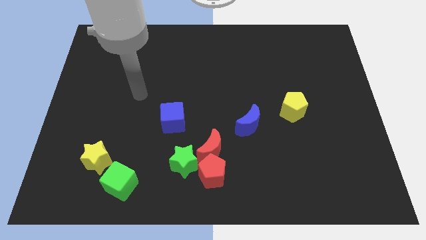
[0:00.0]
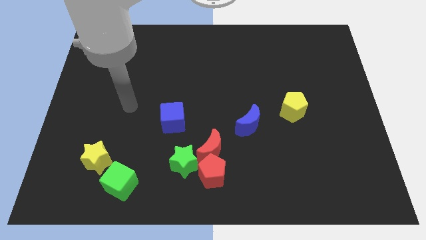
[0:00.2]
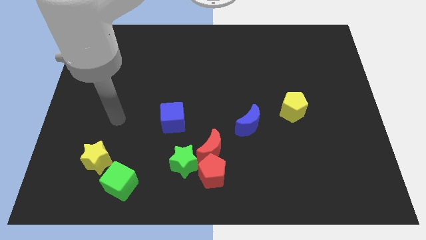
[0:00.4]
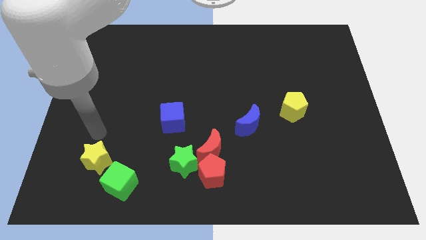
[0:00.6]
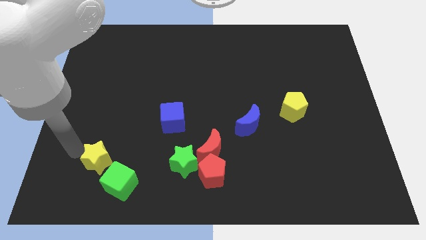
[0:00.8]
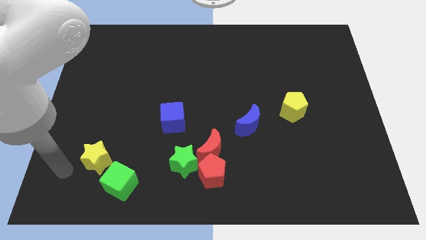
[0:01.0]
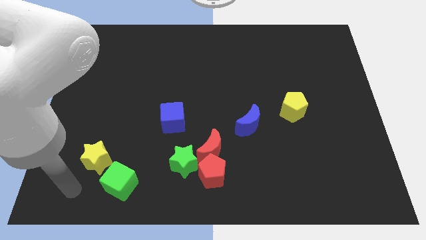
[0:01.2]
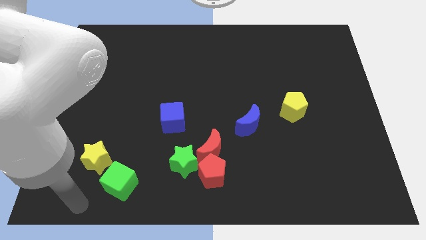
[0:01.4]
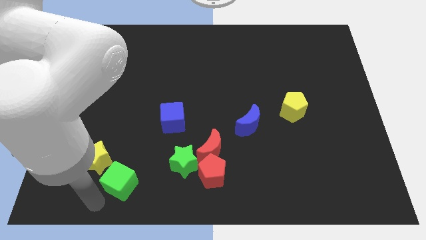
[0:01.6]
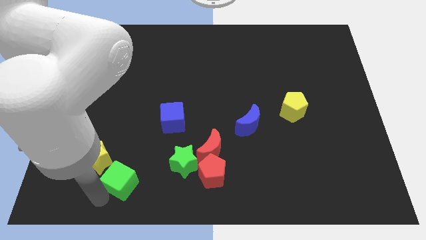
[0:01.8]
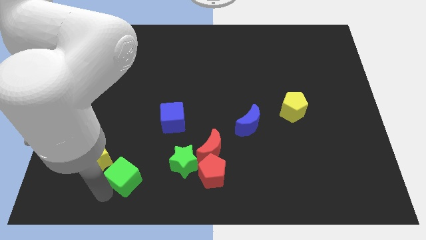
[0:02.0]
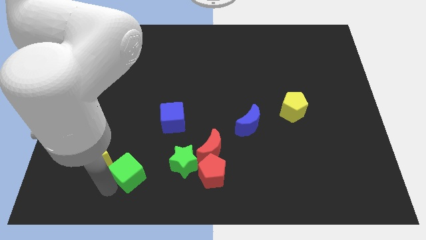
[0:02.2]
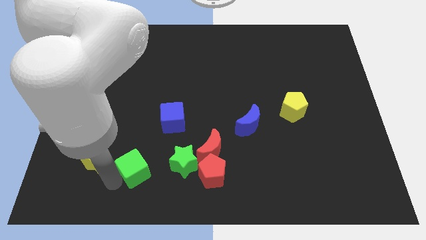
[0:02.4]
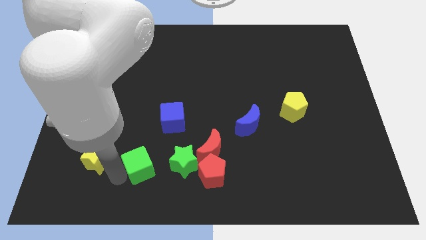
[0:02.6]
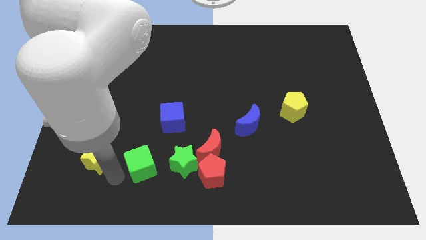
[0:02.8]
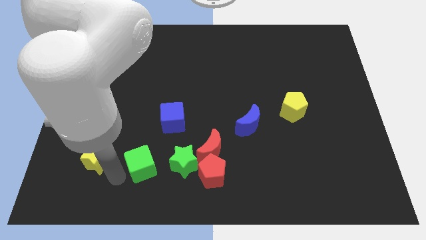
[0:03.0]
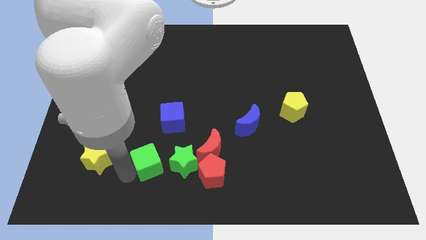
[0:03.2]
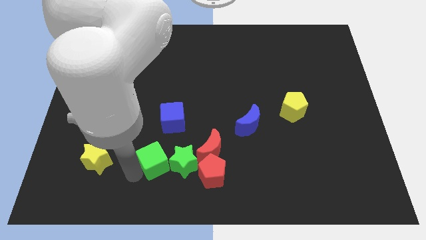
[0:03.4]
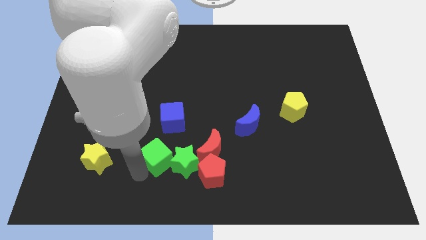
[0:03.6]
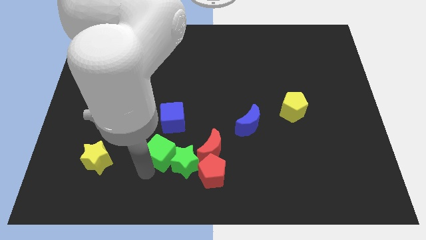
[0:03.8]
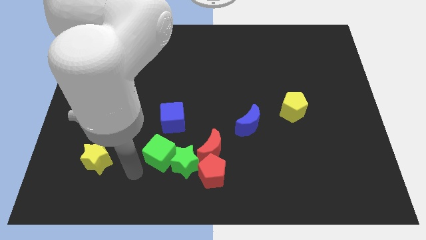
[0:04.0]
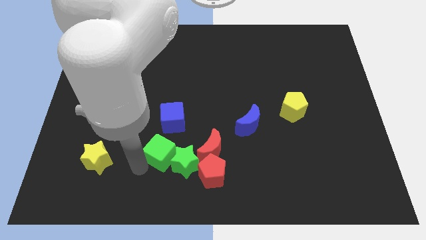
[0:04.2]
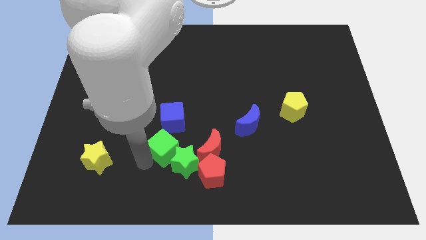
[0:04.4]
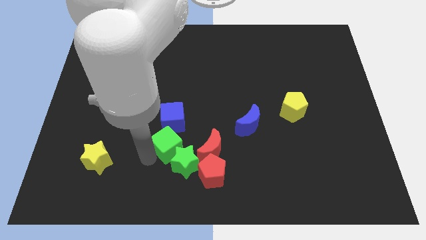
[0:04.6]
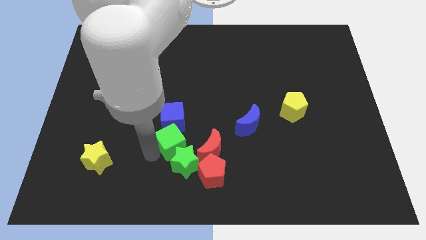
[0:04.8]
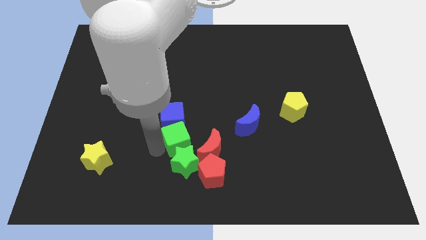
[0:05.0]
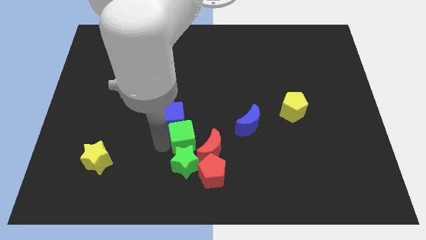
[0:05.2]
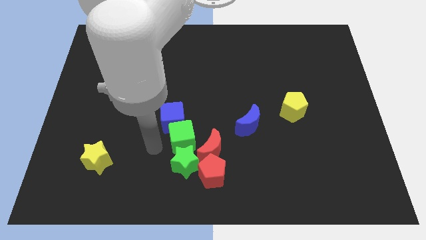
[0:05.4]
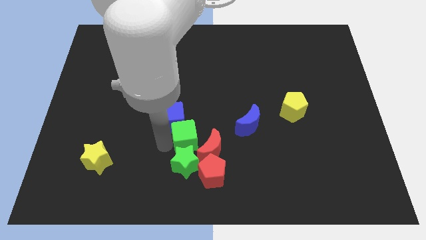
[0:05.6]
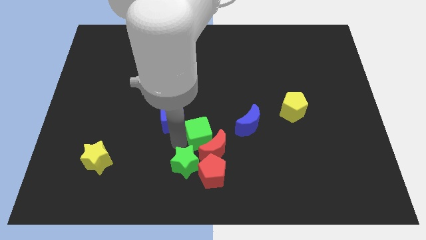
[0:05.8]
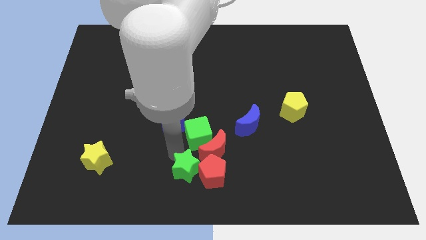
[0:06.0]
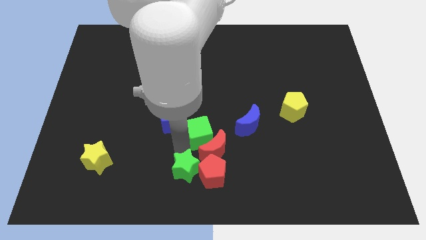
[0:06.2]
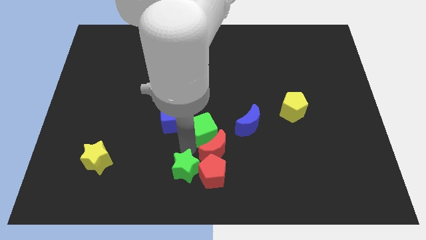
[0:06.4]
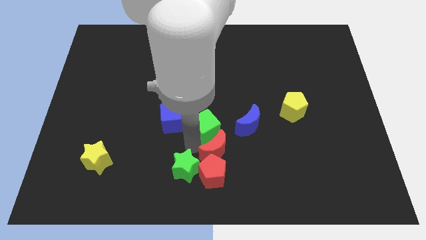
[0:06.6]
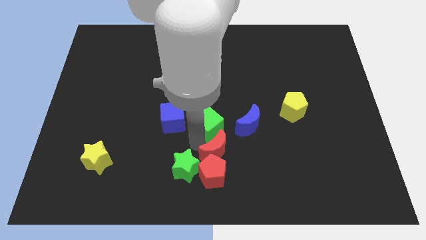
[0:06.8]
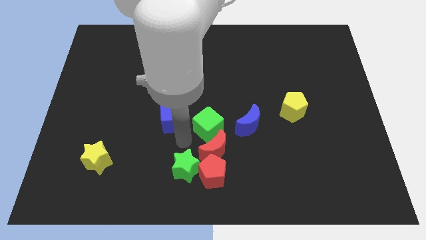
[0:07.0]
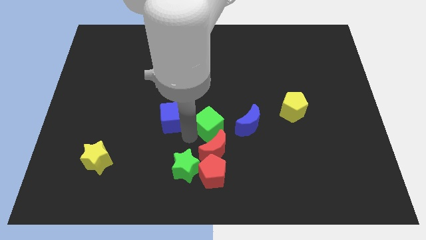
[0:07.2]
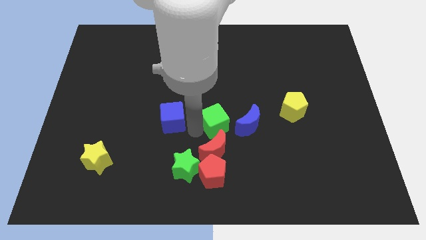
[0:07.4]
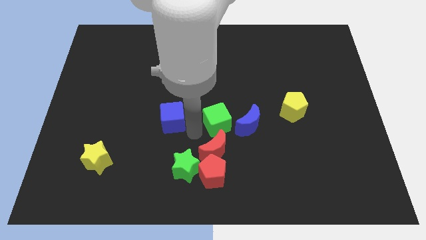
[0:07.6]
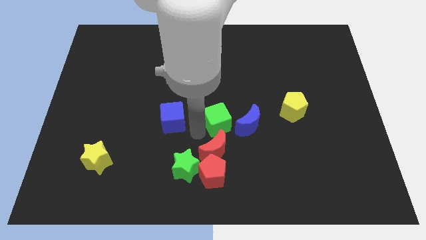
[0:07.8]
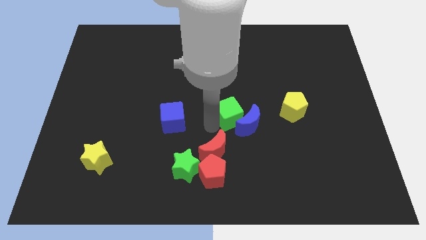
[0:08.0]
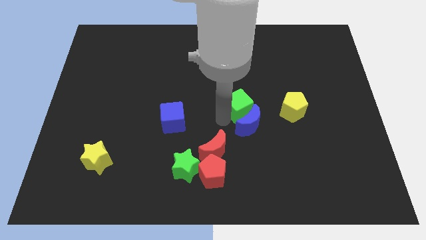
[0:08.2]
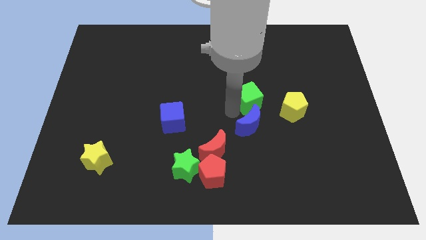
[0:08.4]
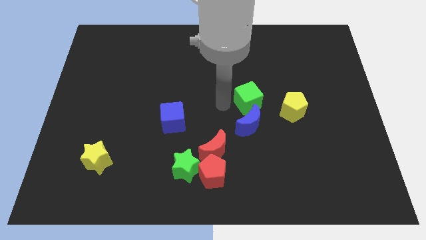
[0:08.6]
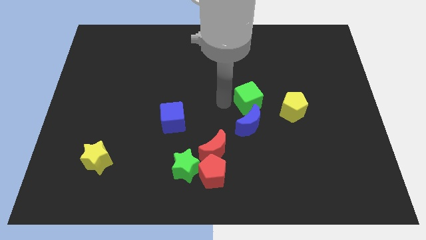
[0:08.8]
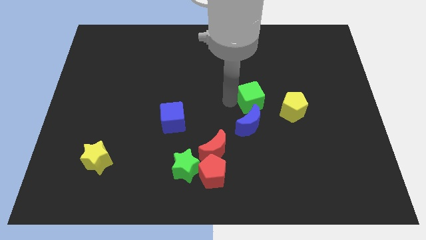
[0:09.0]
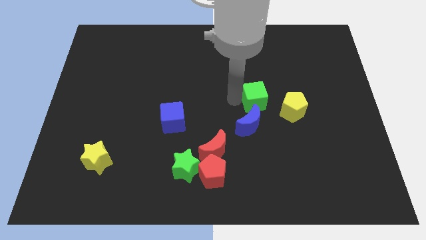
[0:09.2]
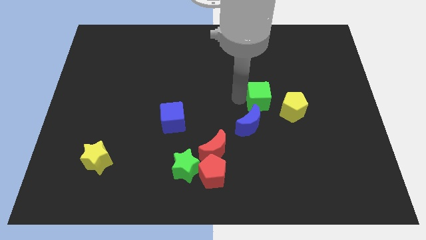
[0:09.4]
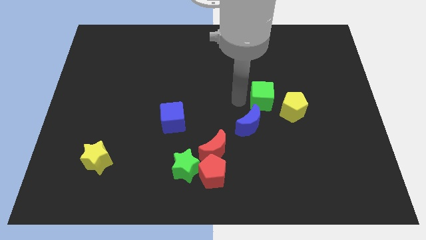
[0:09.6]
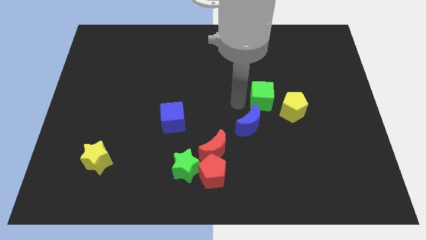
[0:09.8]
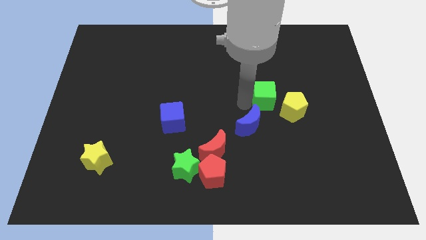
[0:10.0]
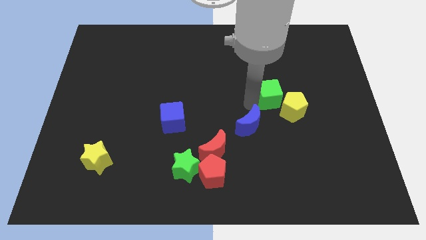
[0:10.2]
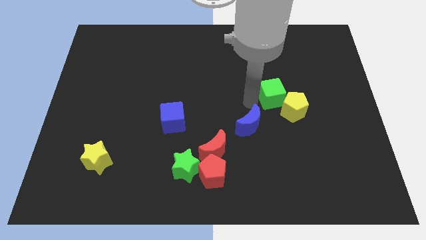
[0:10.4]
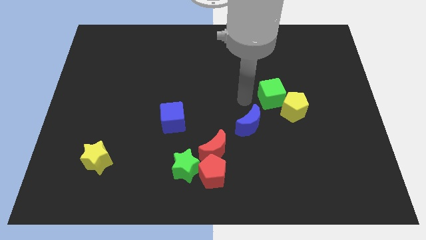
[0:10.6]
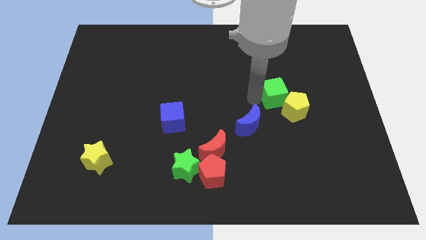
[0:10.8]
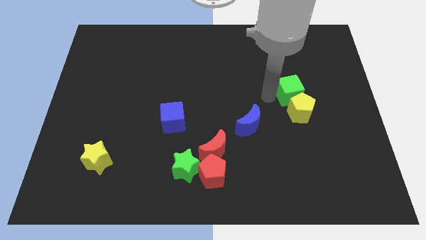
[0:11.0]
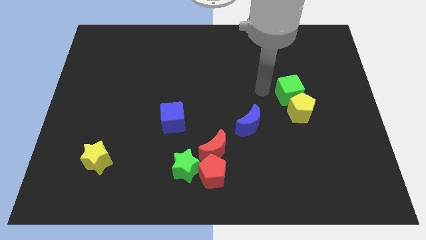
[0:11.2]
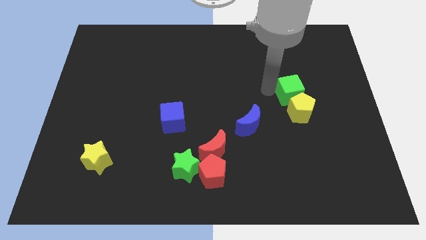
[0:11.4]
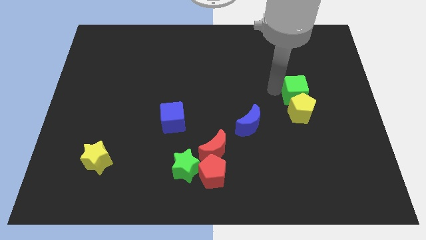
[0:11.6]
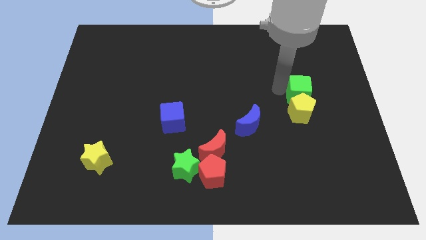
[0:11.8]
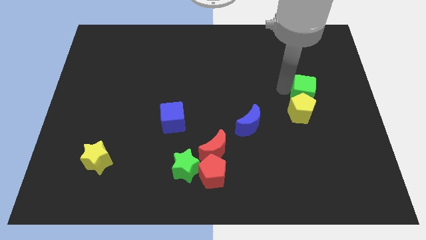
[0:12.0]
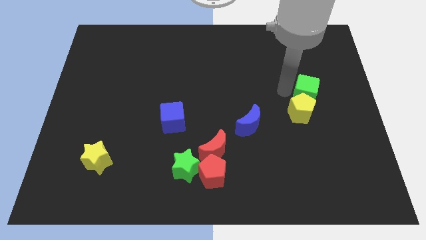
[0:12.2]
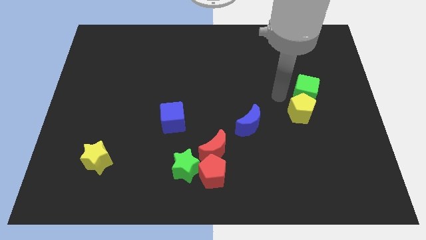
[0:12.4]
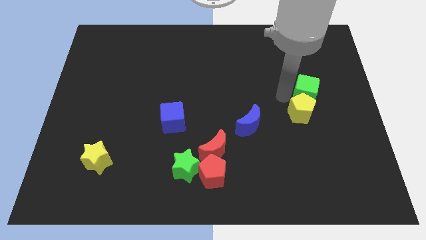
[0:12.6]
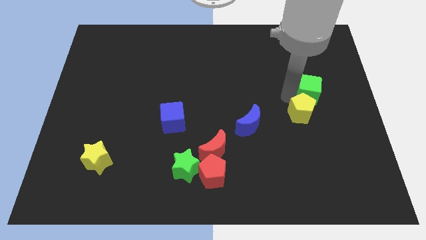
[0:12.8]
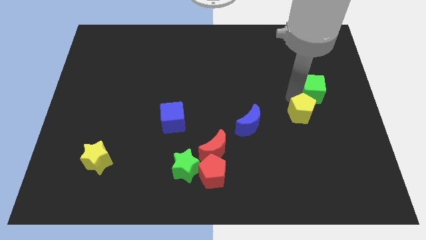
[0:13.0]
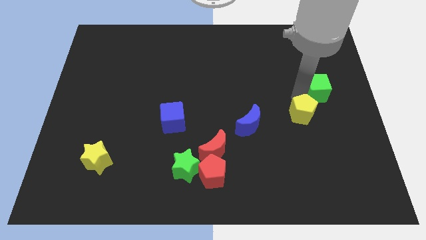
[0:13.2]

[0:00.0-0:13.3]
move the green cube to the right side
